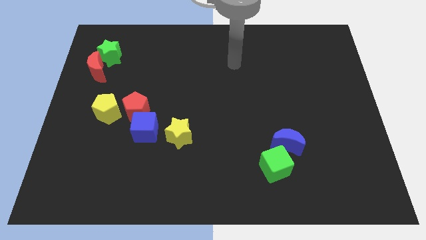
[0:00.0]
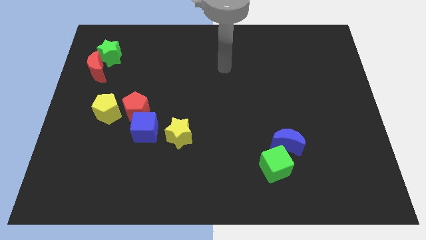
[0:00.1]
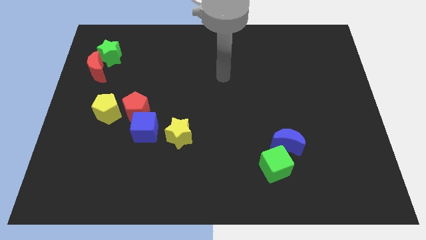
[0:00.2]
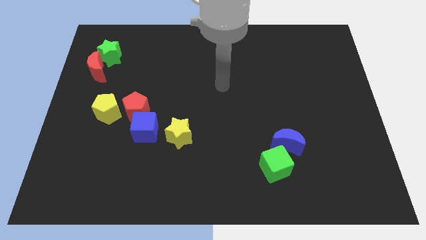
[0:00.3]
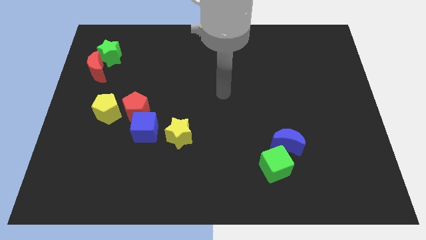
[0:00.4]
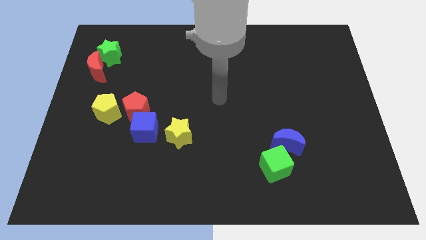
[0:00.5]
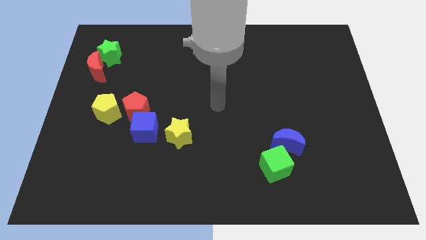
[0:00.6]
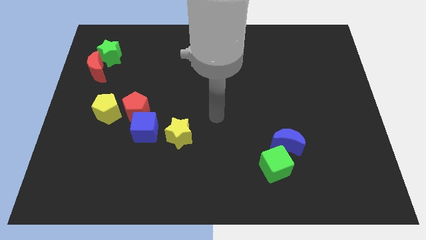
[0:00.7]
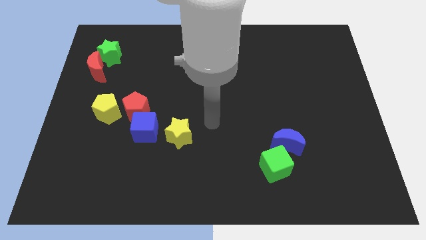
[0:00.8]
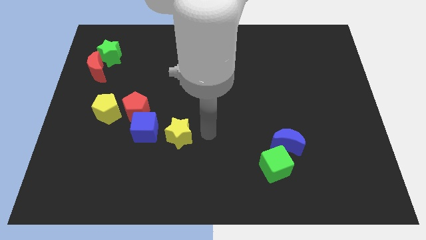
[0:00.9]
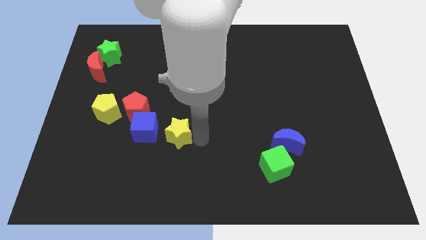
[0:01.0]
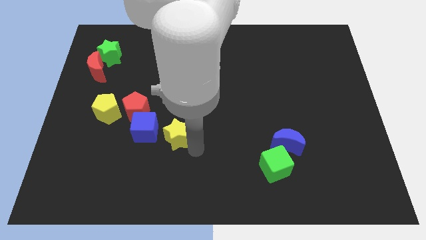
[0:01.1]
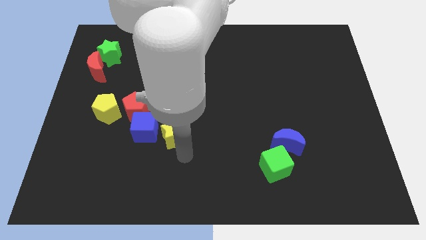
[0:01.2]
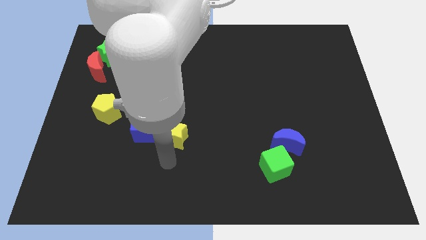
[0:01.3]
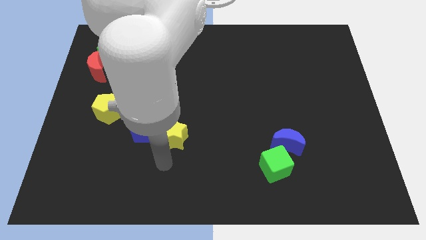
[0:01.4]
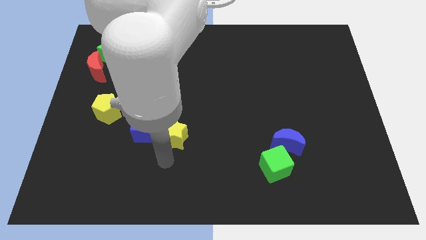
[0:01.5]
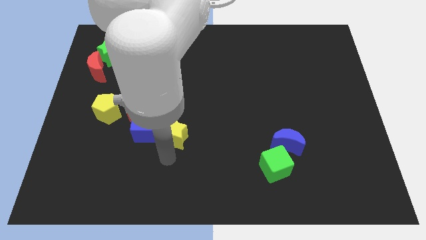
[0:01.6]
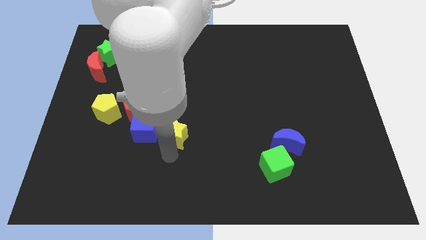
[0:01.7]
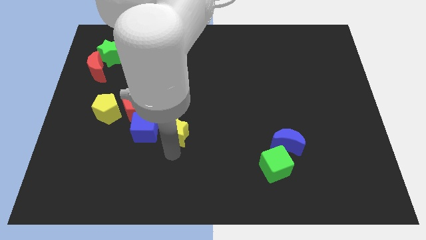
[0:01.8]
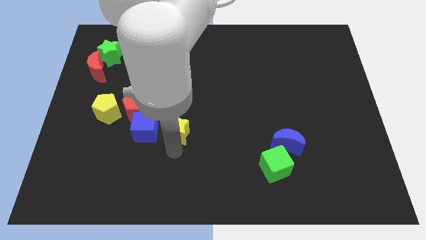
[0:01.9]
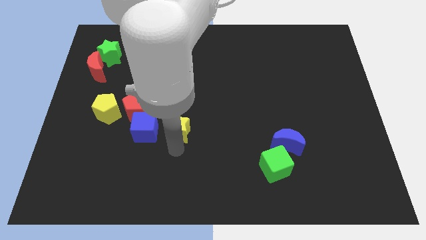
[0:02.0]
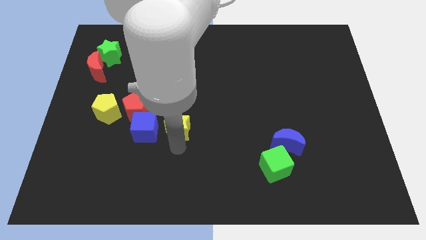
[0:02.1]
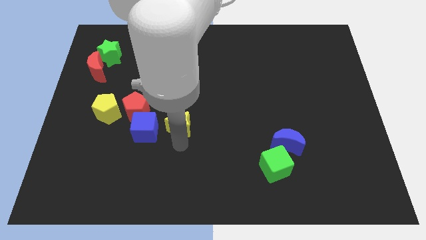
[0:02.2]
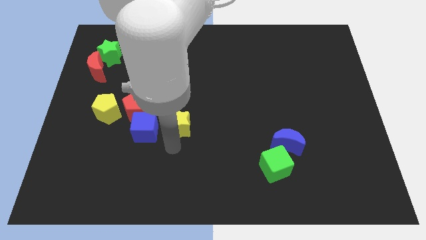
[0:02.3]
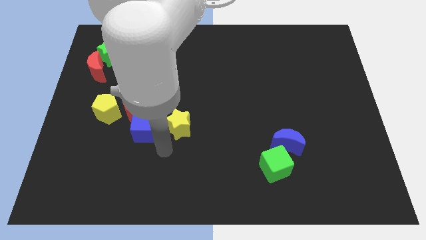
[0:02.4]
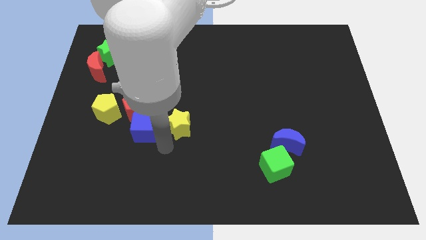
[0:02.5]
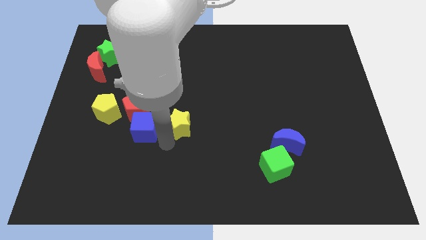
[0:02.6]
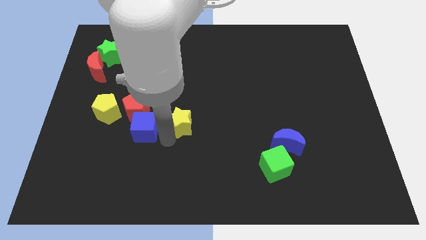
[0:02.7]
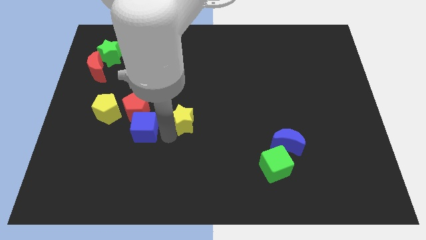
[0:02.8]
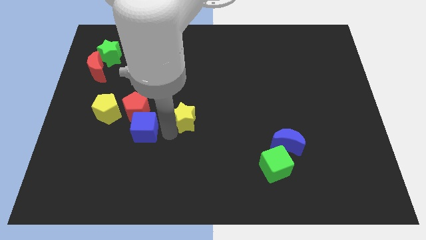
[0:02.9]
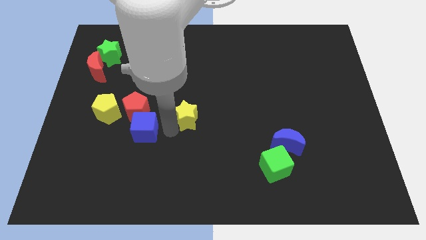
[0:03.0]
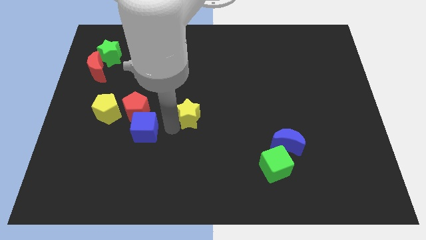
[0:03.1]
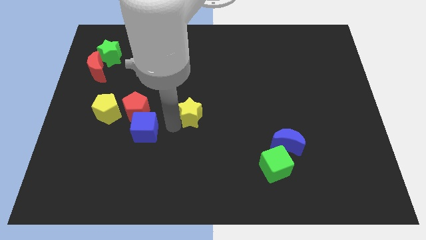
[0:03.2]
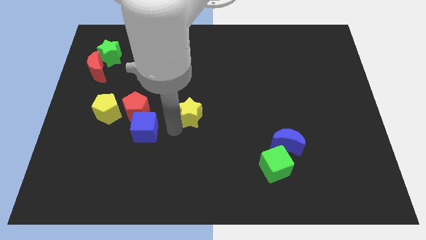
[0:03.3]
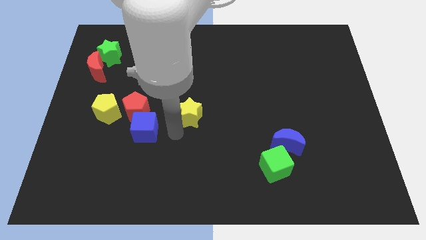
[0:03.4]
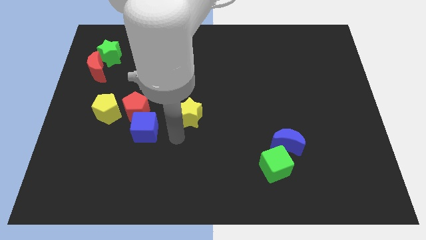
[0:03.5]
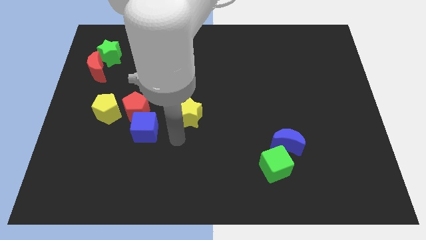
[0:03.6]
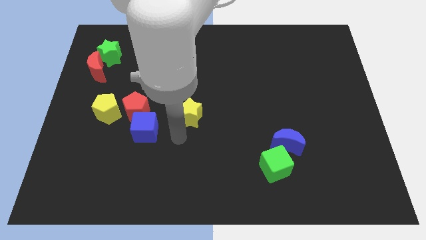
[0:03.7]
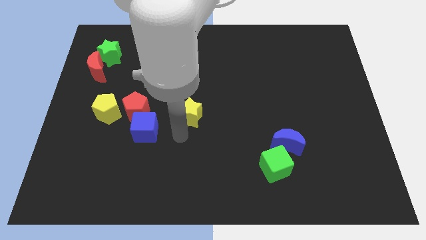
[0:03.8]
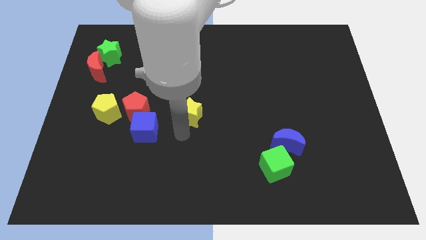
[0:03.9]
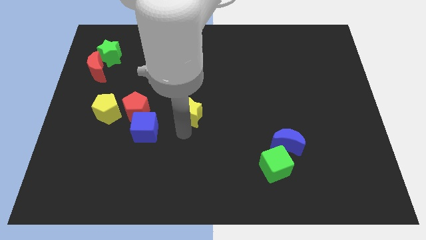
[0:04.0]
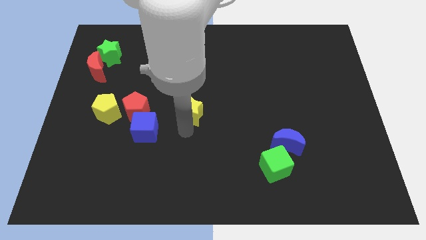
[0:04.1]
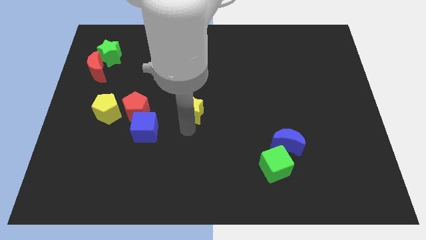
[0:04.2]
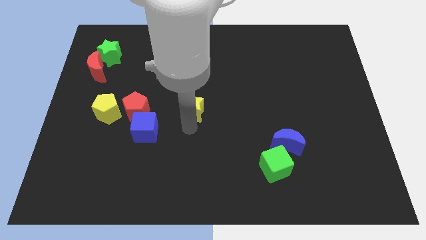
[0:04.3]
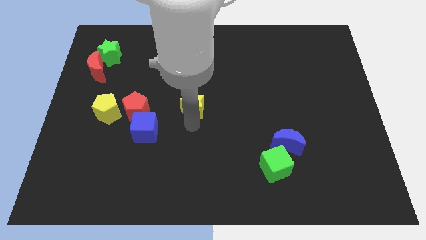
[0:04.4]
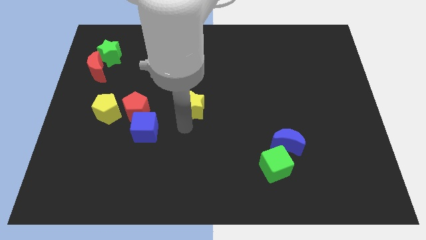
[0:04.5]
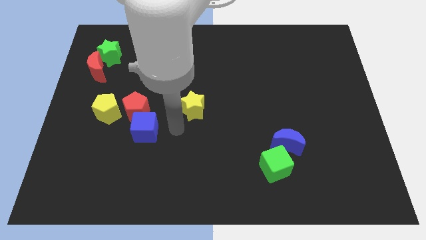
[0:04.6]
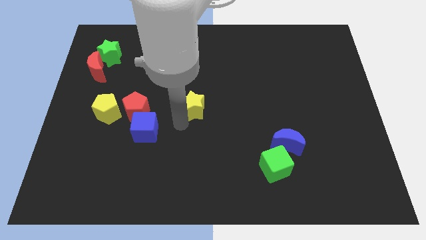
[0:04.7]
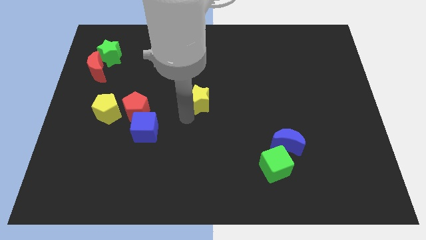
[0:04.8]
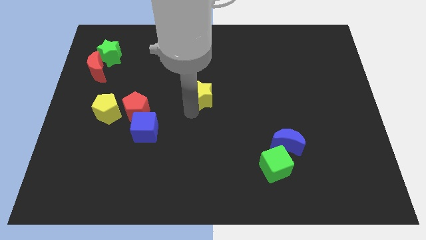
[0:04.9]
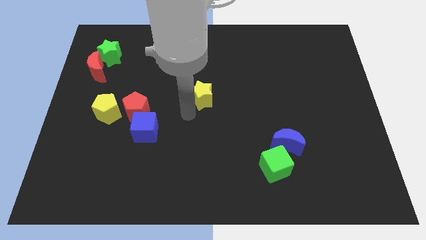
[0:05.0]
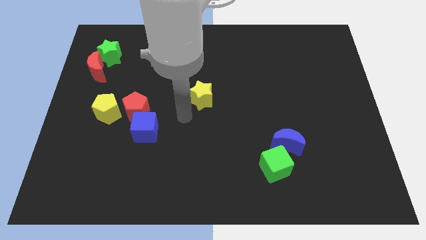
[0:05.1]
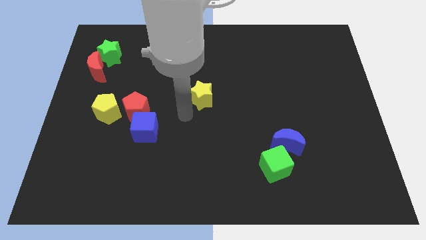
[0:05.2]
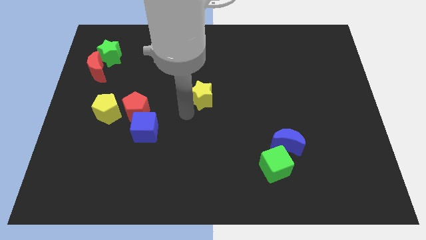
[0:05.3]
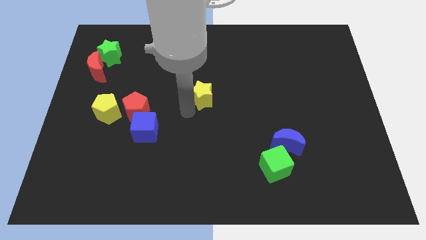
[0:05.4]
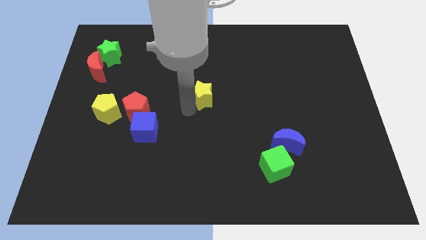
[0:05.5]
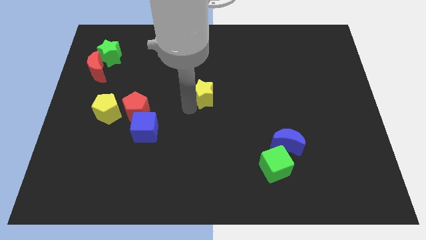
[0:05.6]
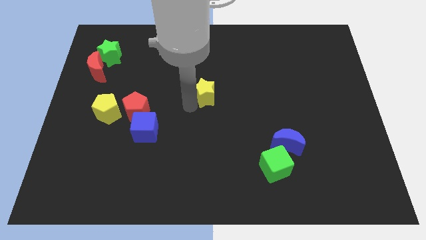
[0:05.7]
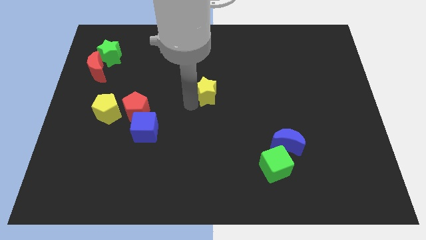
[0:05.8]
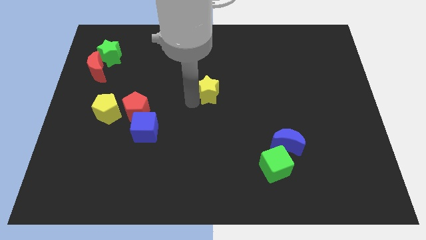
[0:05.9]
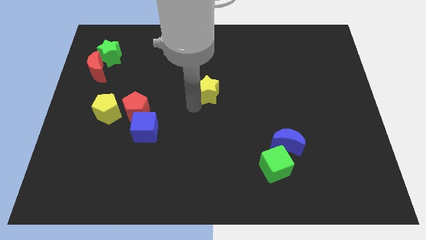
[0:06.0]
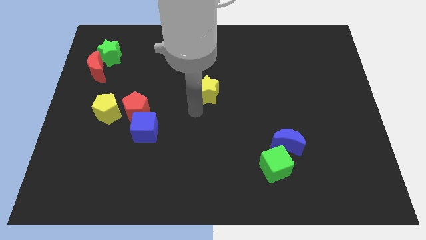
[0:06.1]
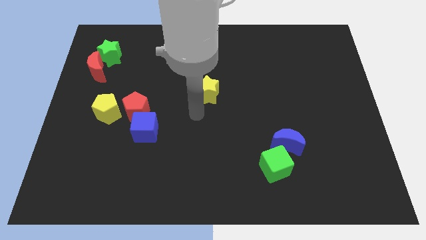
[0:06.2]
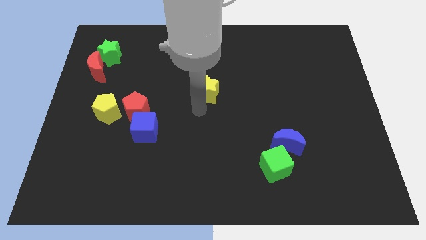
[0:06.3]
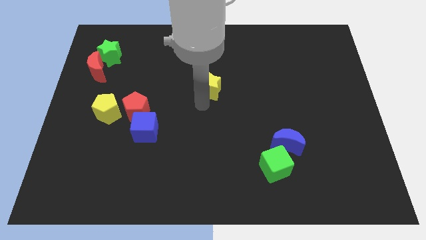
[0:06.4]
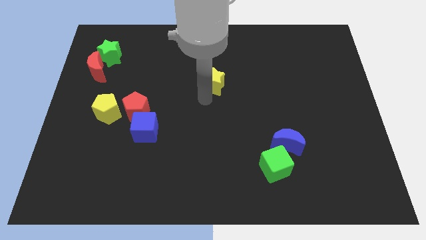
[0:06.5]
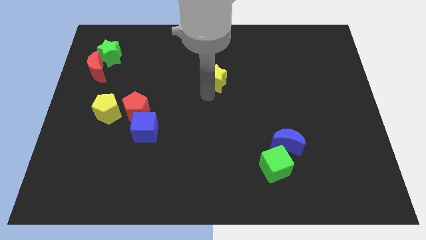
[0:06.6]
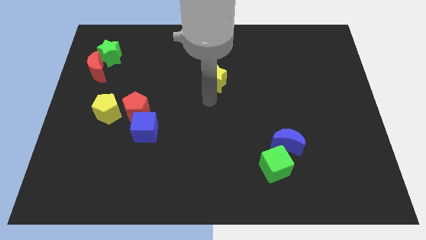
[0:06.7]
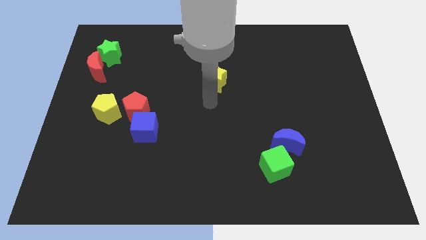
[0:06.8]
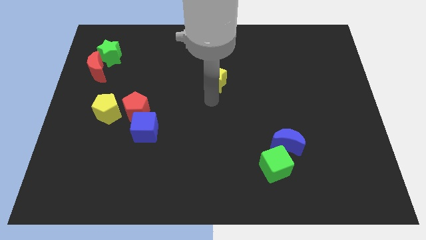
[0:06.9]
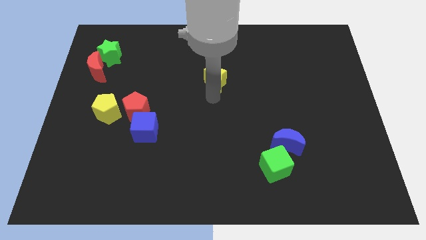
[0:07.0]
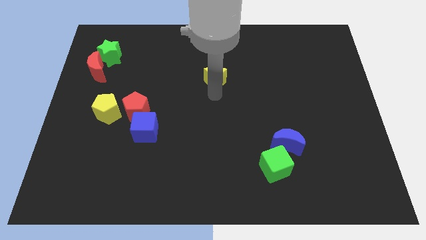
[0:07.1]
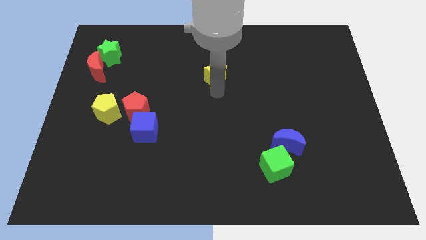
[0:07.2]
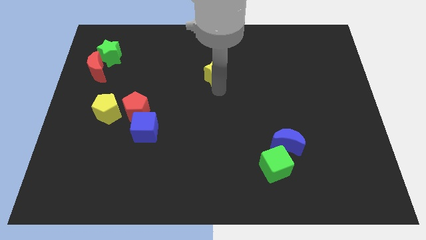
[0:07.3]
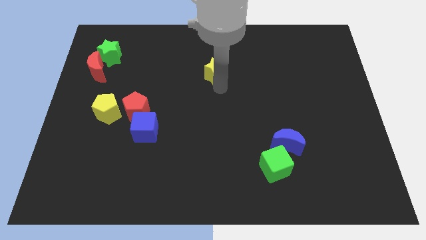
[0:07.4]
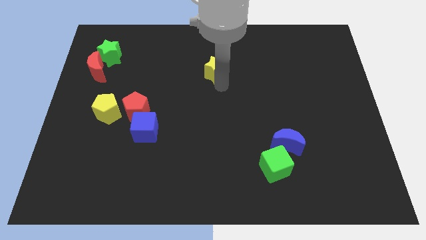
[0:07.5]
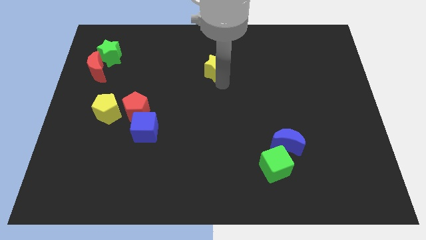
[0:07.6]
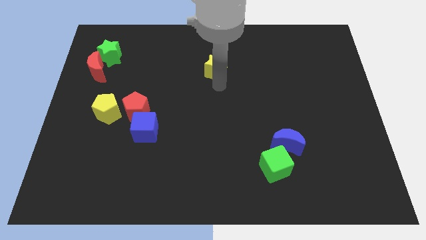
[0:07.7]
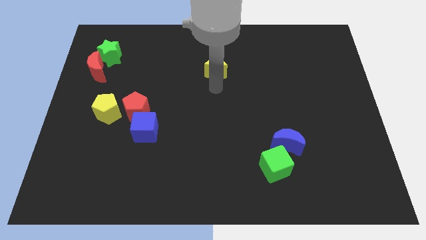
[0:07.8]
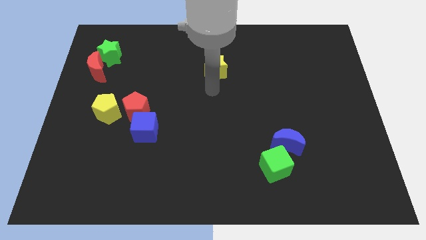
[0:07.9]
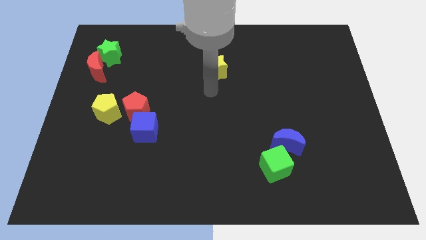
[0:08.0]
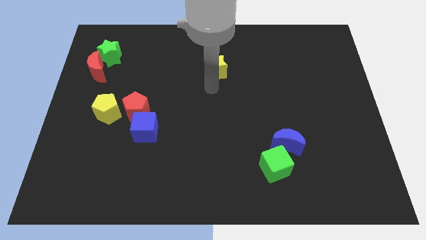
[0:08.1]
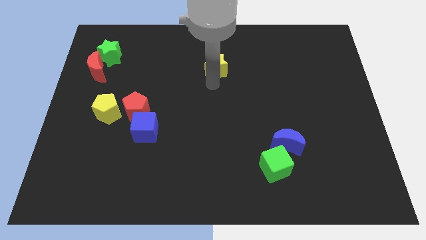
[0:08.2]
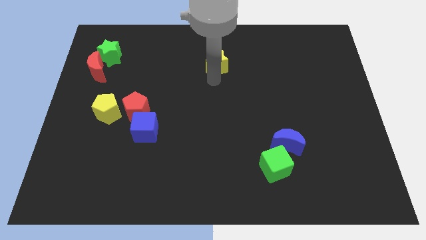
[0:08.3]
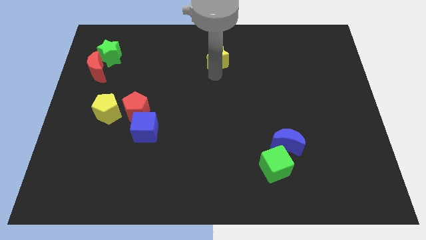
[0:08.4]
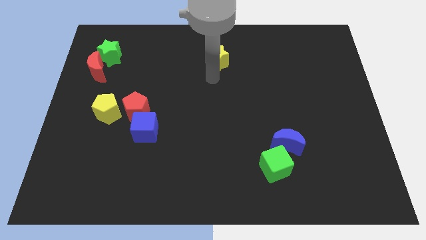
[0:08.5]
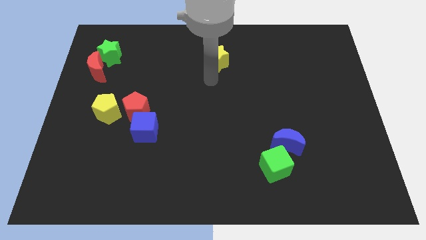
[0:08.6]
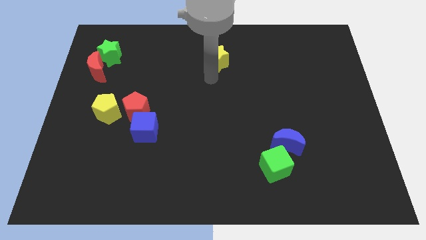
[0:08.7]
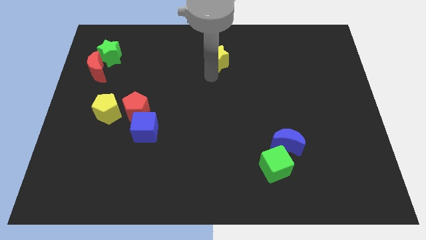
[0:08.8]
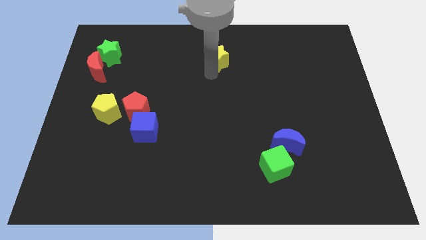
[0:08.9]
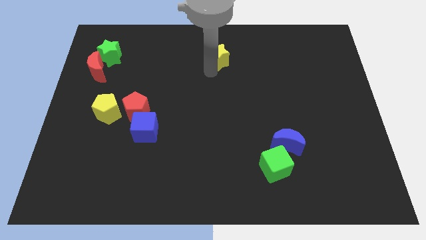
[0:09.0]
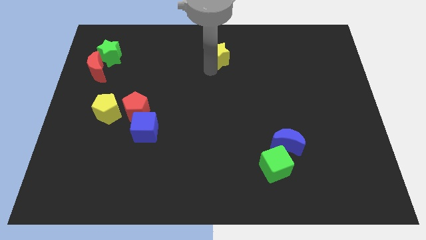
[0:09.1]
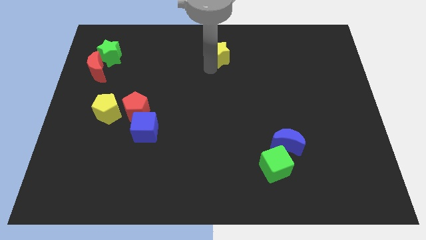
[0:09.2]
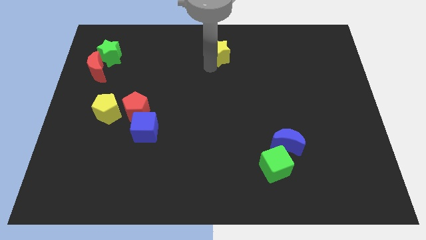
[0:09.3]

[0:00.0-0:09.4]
put the yellow star to the towards your base
